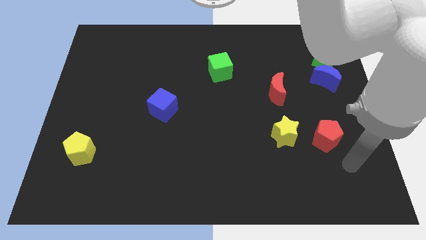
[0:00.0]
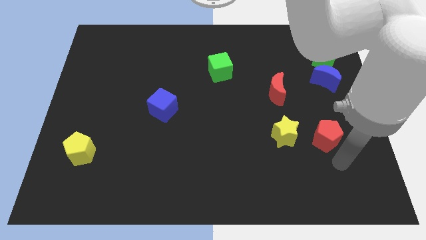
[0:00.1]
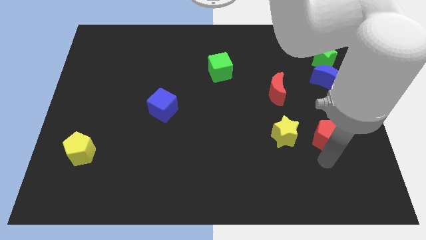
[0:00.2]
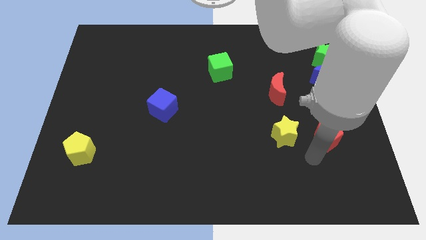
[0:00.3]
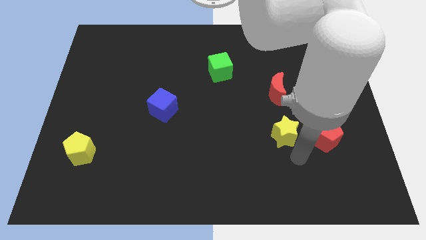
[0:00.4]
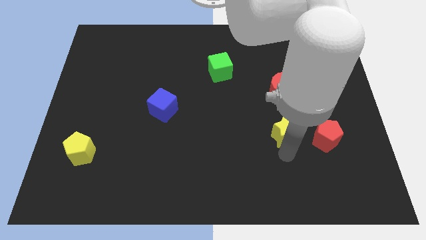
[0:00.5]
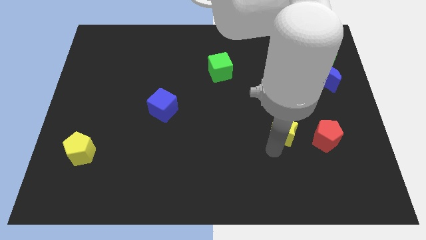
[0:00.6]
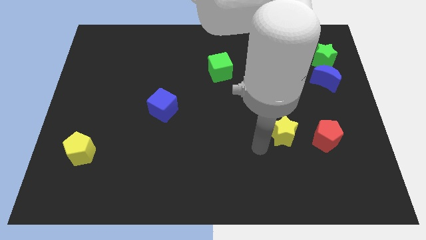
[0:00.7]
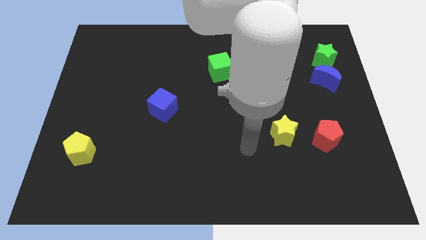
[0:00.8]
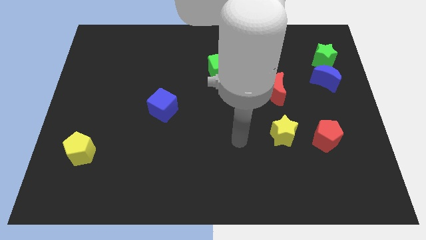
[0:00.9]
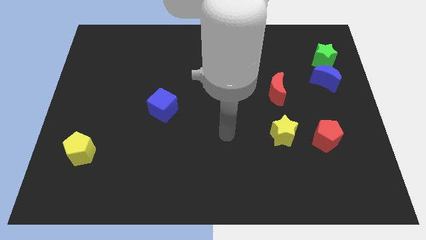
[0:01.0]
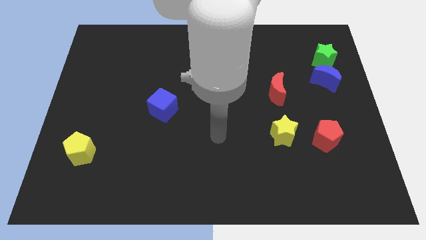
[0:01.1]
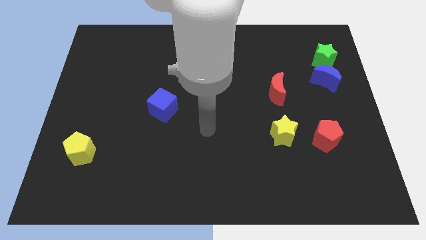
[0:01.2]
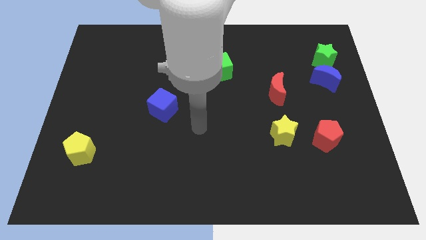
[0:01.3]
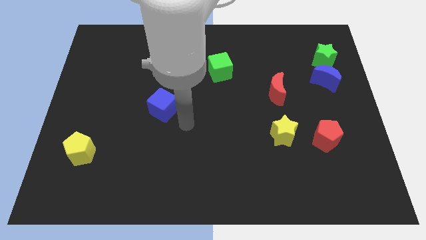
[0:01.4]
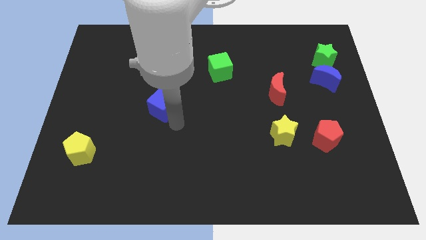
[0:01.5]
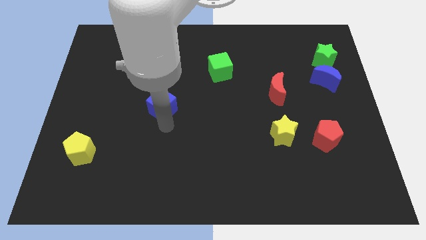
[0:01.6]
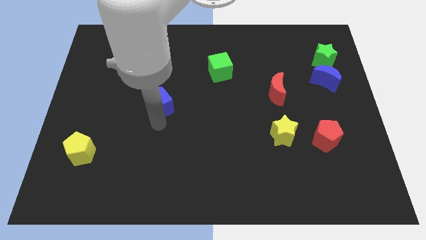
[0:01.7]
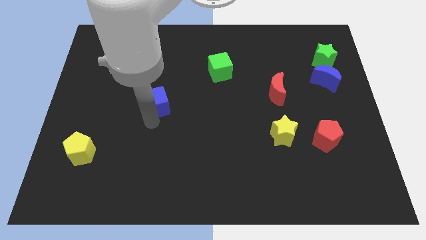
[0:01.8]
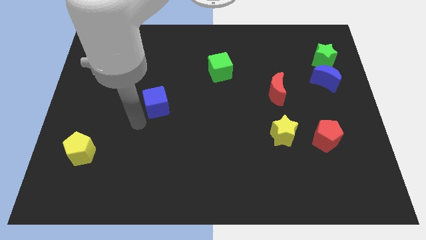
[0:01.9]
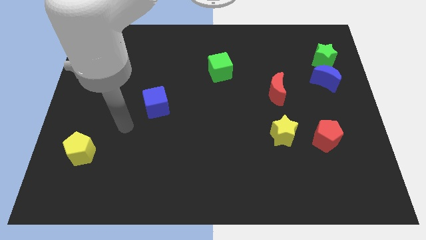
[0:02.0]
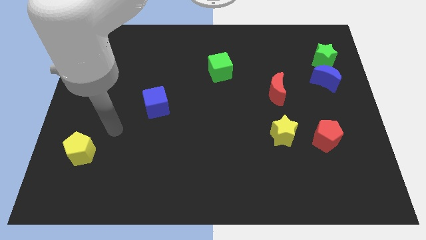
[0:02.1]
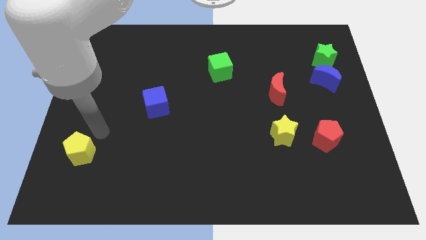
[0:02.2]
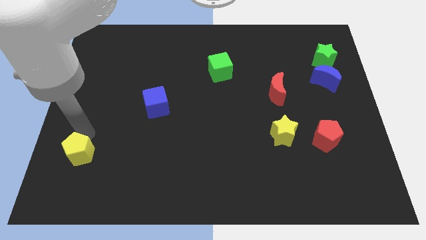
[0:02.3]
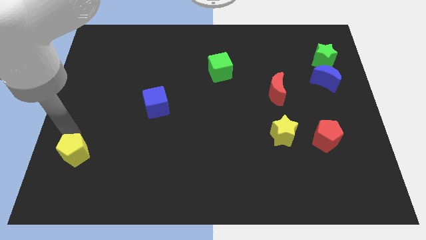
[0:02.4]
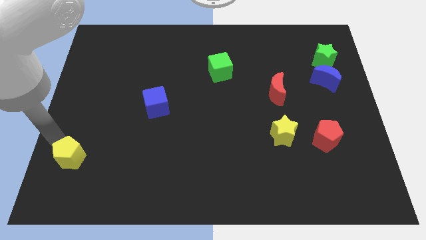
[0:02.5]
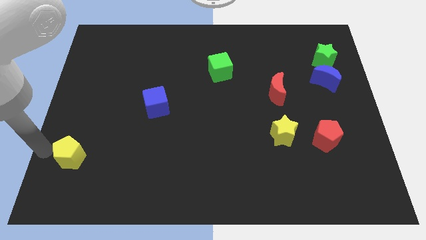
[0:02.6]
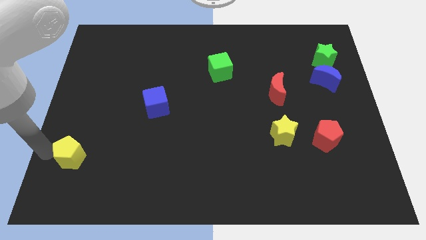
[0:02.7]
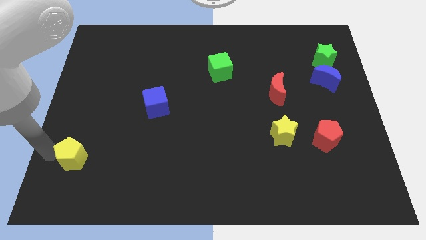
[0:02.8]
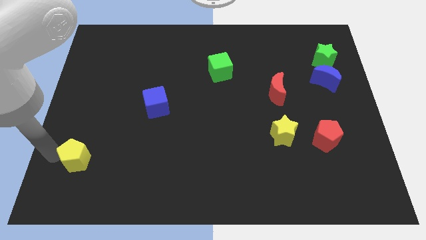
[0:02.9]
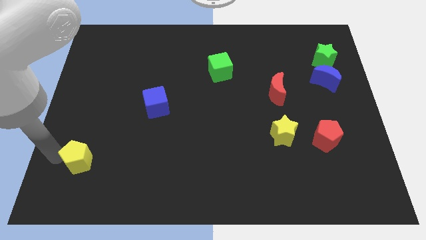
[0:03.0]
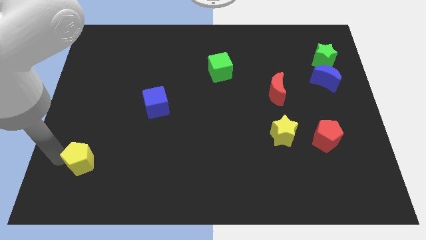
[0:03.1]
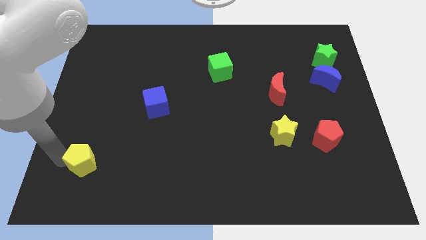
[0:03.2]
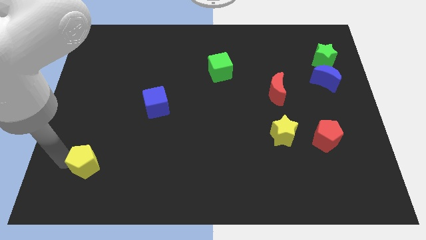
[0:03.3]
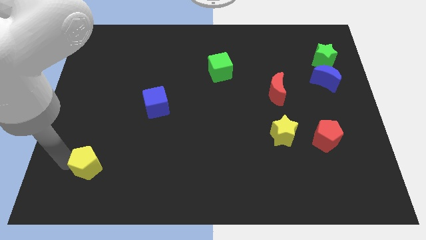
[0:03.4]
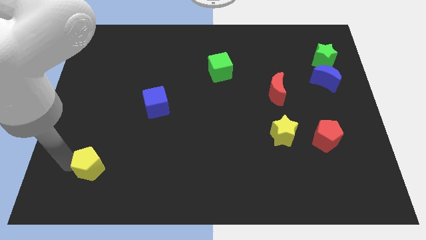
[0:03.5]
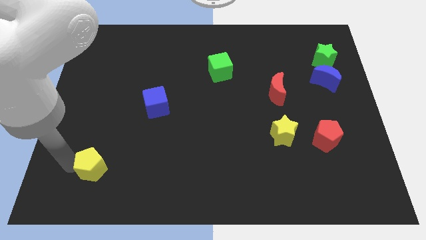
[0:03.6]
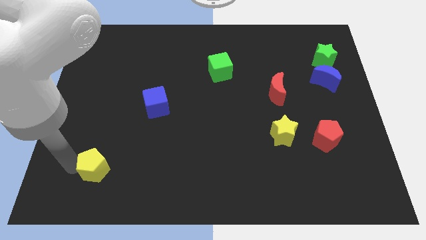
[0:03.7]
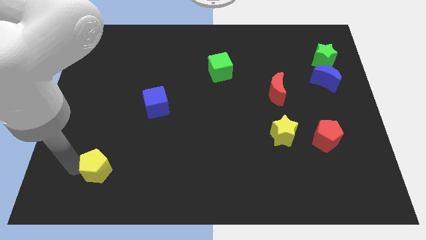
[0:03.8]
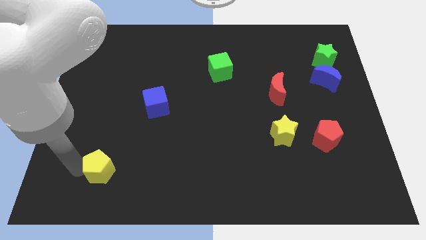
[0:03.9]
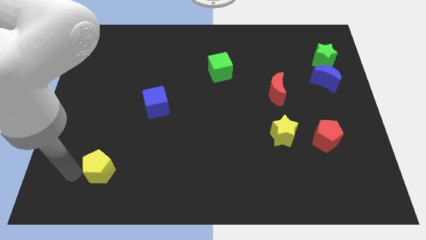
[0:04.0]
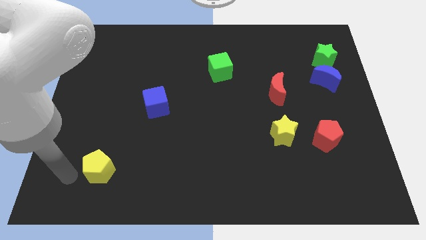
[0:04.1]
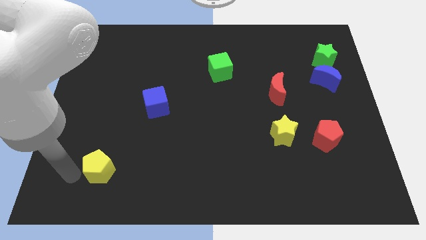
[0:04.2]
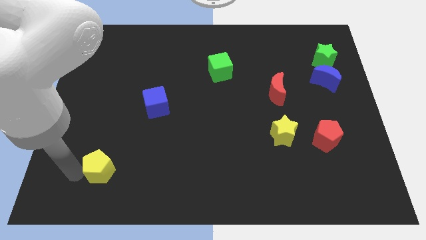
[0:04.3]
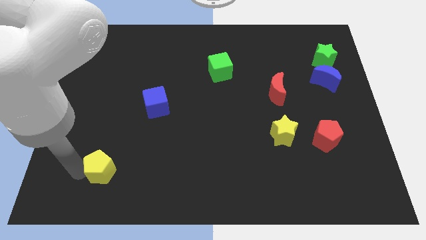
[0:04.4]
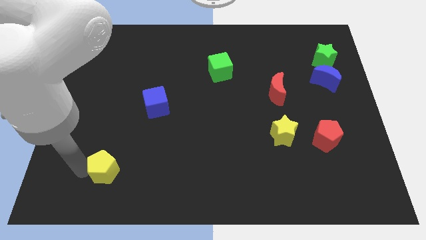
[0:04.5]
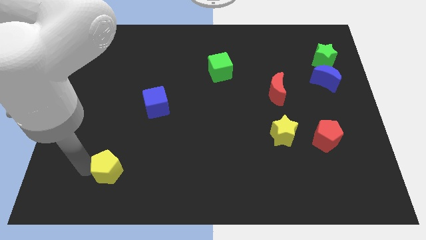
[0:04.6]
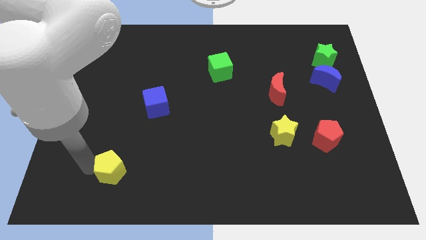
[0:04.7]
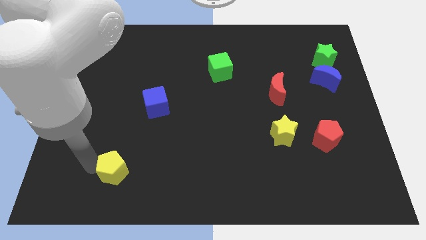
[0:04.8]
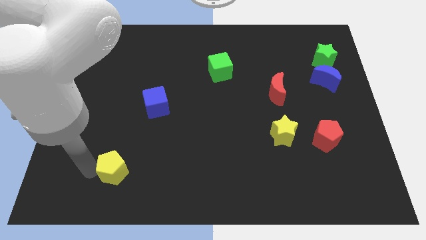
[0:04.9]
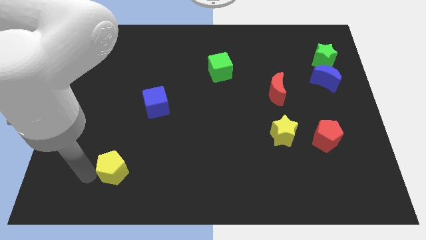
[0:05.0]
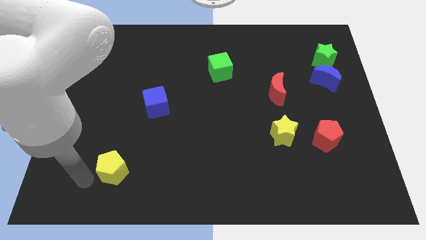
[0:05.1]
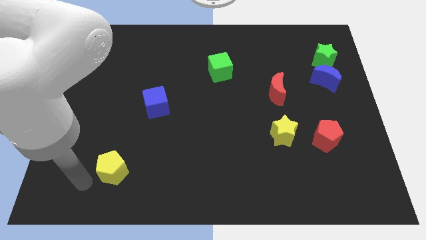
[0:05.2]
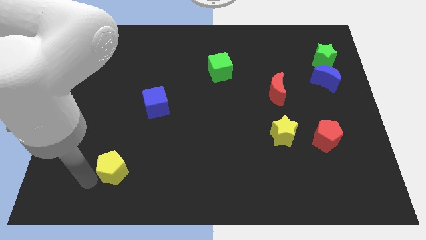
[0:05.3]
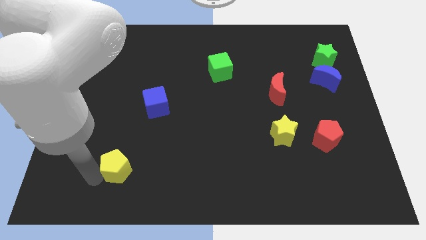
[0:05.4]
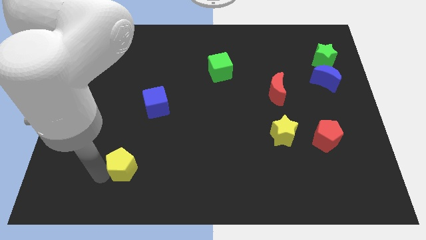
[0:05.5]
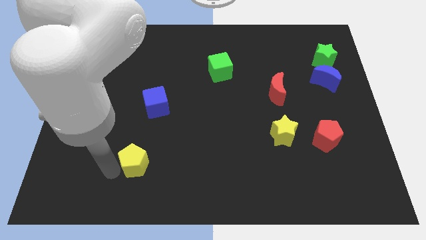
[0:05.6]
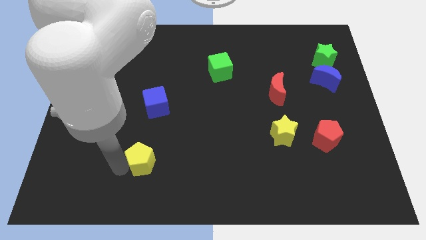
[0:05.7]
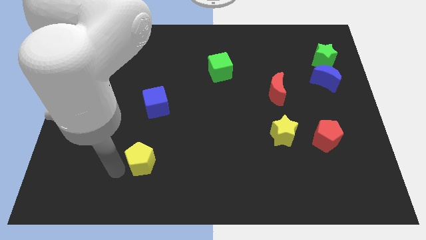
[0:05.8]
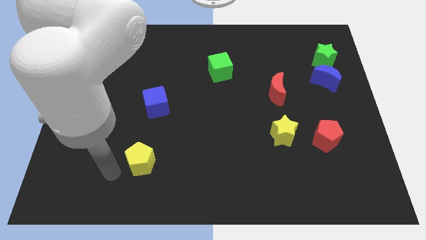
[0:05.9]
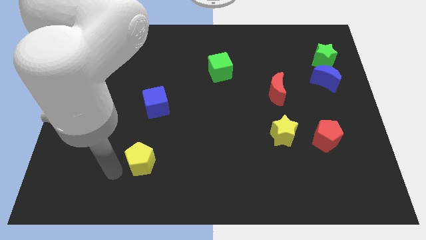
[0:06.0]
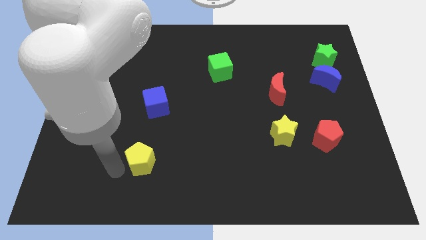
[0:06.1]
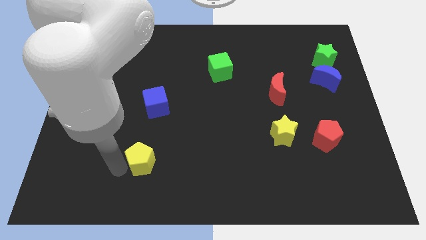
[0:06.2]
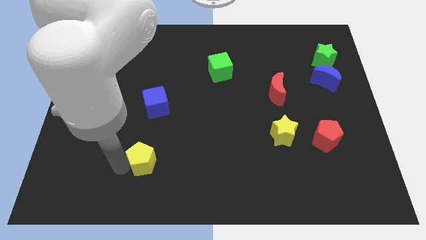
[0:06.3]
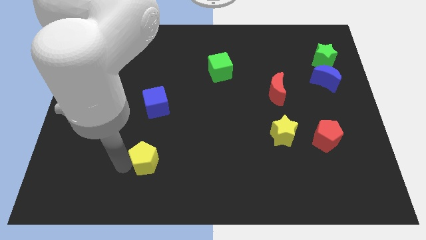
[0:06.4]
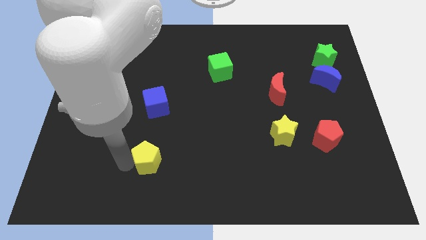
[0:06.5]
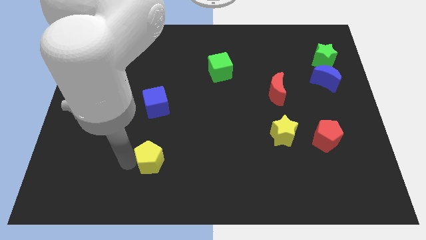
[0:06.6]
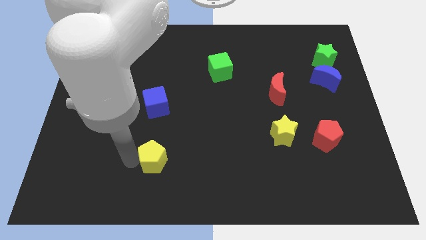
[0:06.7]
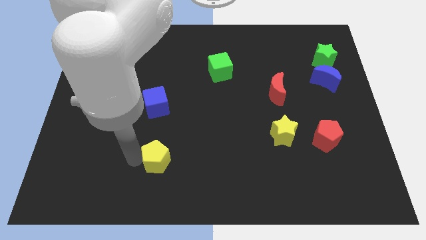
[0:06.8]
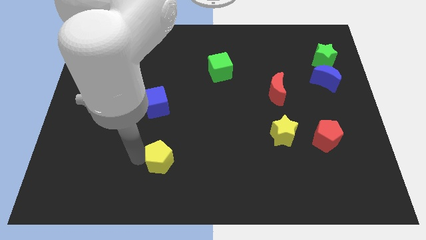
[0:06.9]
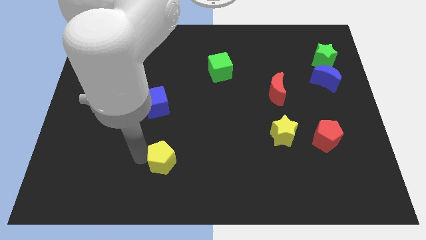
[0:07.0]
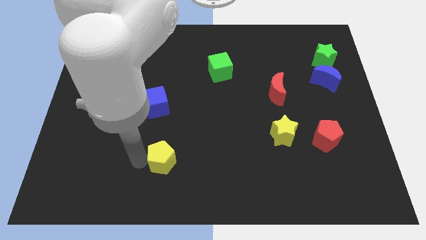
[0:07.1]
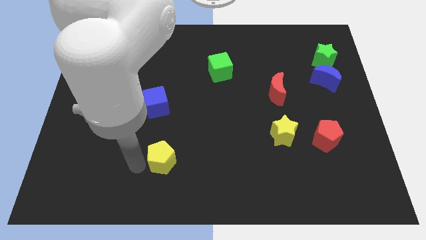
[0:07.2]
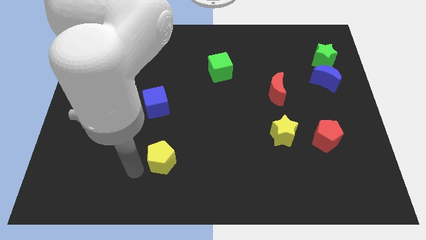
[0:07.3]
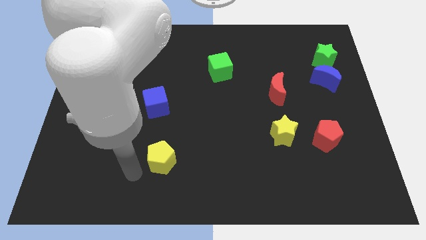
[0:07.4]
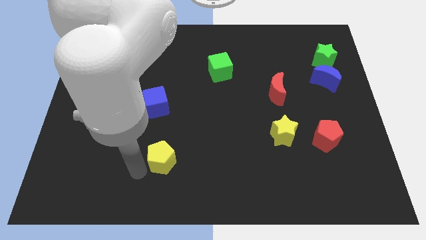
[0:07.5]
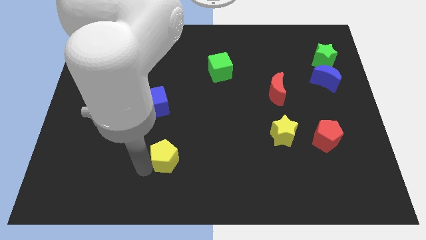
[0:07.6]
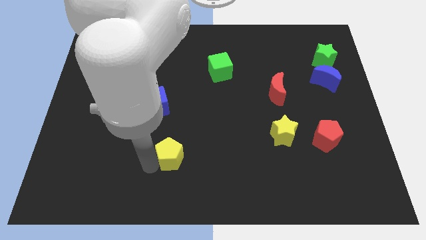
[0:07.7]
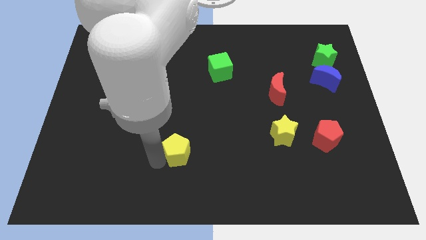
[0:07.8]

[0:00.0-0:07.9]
move the yellow pentagon to the right

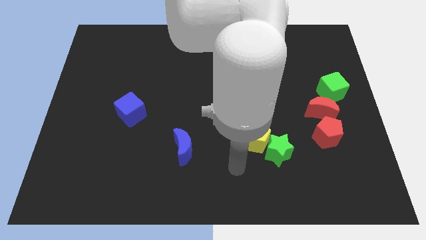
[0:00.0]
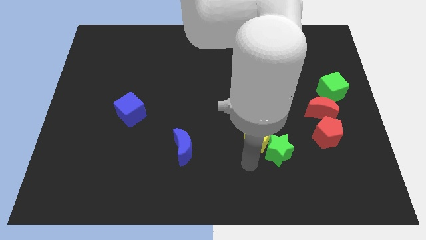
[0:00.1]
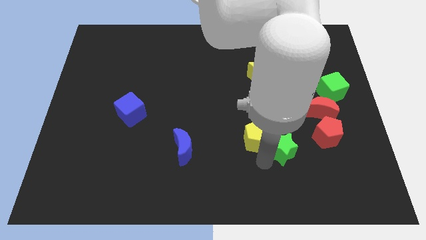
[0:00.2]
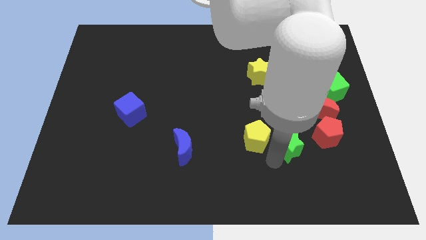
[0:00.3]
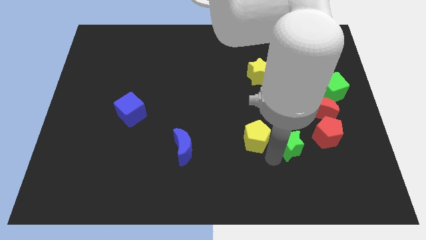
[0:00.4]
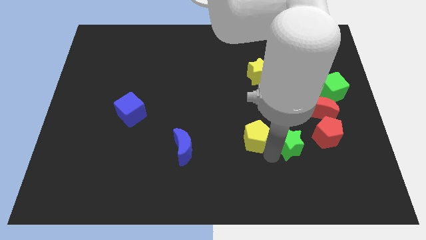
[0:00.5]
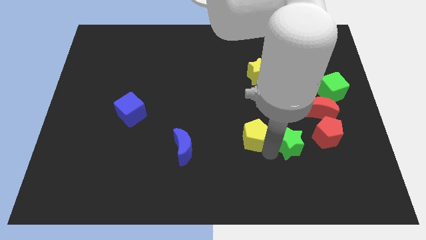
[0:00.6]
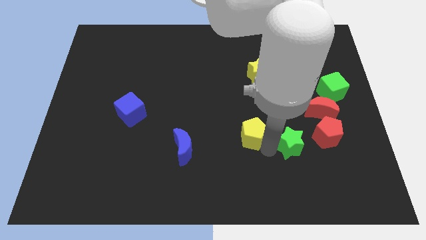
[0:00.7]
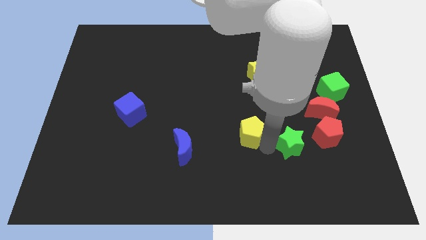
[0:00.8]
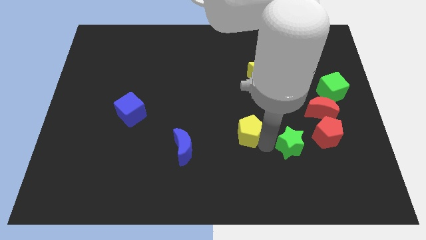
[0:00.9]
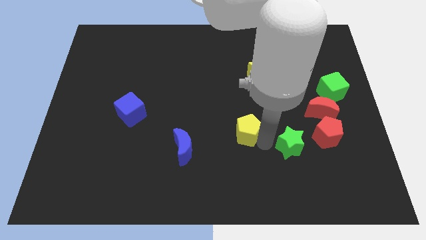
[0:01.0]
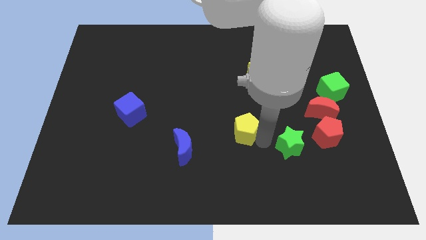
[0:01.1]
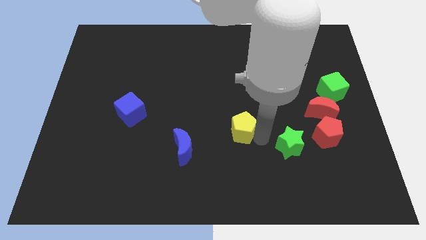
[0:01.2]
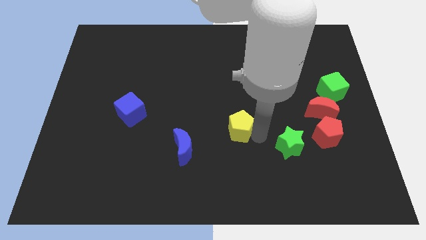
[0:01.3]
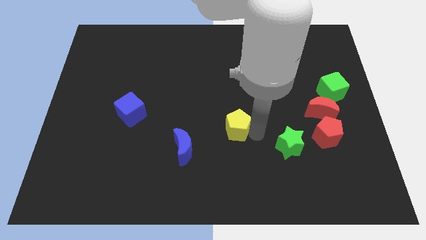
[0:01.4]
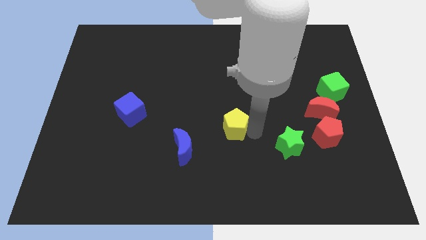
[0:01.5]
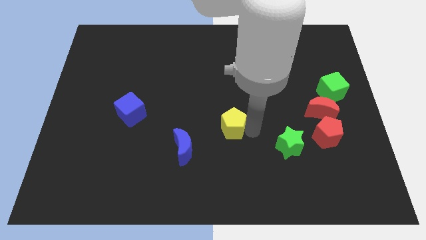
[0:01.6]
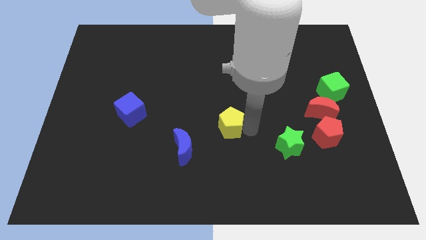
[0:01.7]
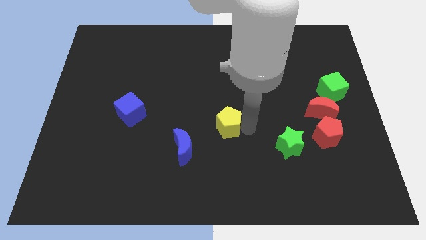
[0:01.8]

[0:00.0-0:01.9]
push the yellow pentagon diagonally up and left a bit
